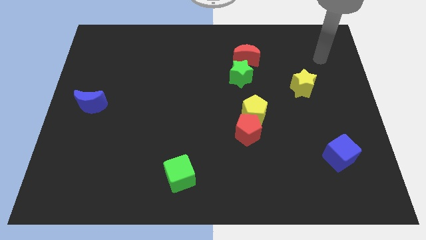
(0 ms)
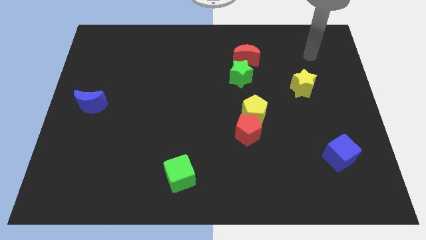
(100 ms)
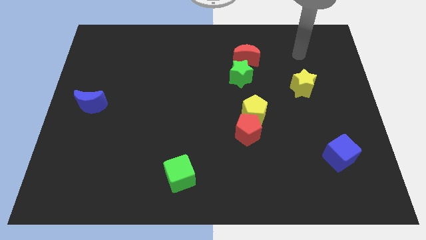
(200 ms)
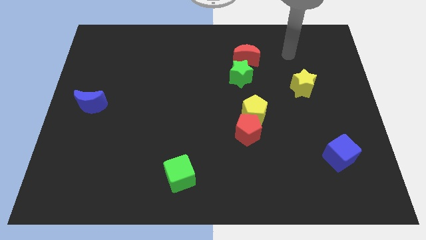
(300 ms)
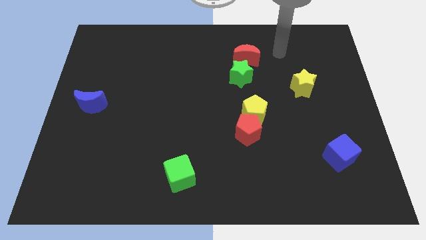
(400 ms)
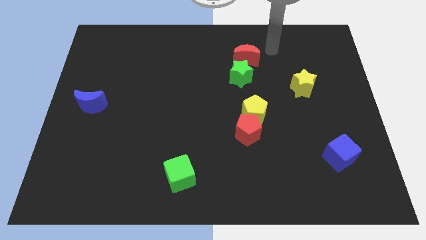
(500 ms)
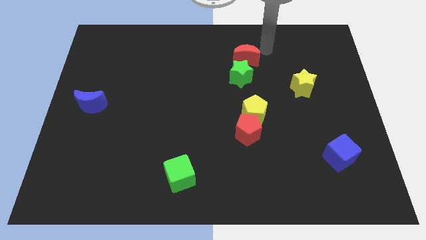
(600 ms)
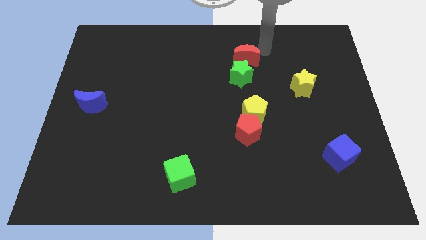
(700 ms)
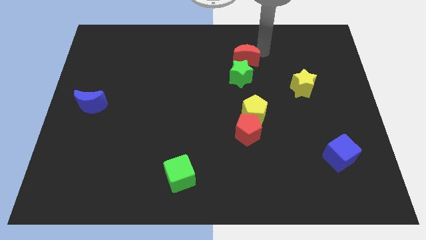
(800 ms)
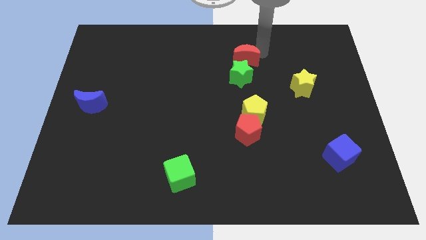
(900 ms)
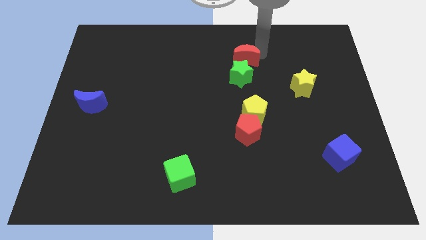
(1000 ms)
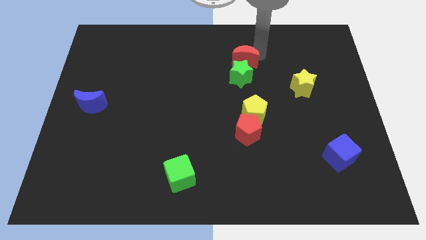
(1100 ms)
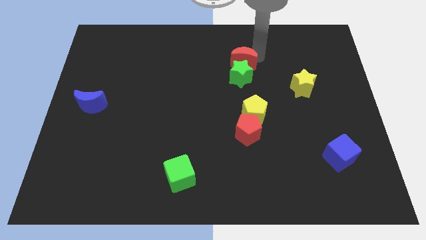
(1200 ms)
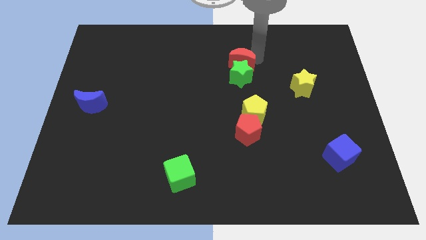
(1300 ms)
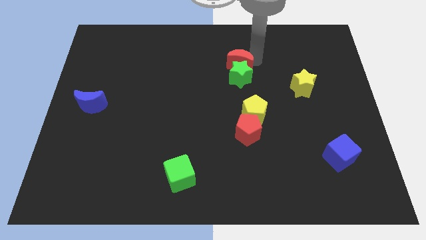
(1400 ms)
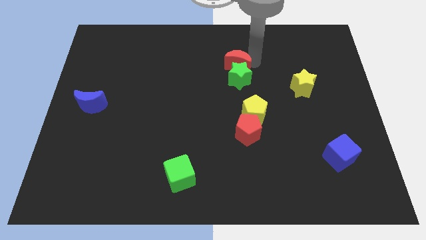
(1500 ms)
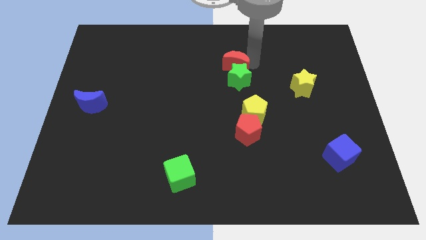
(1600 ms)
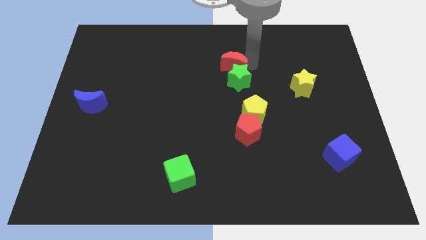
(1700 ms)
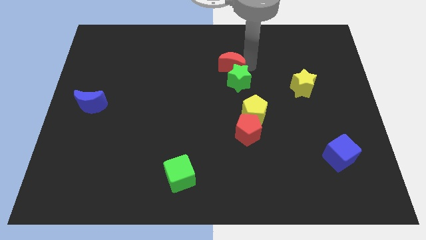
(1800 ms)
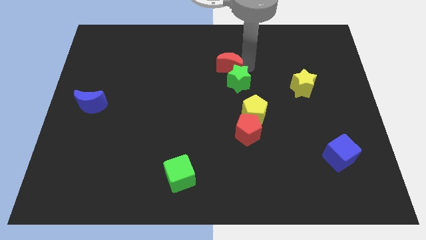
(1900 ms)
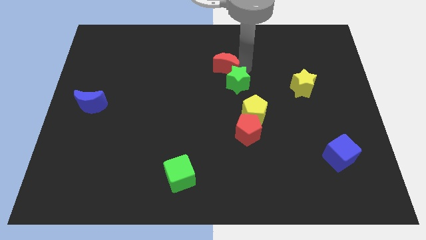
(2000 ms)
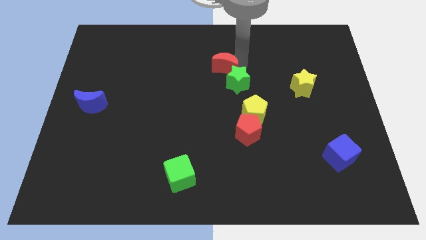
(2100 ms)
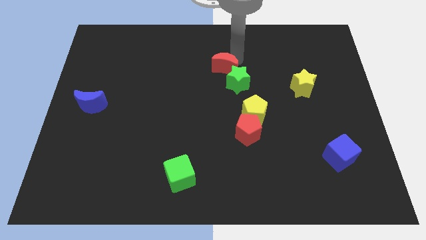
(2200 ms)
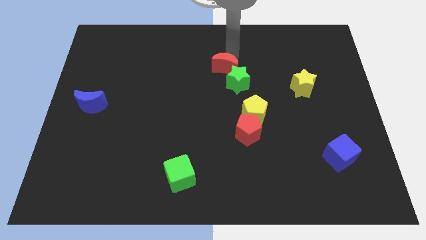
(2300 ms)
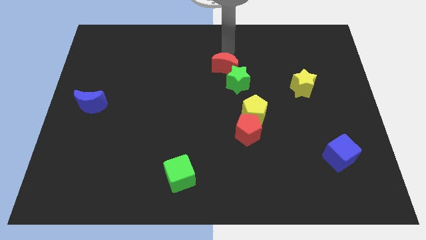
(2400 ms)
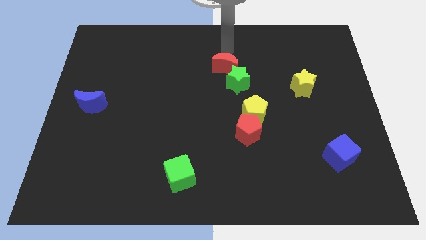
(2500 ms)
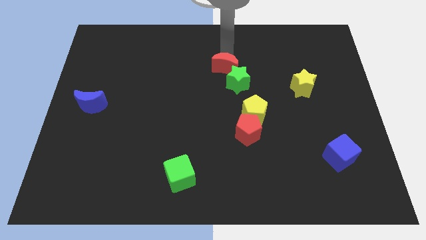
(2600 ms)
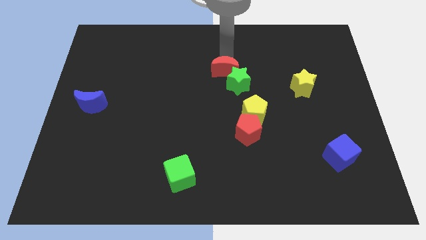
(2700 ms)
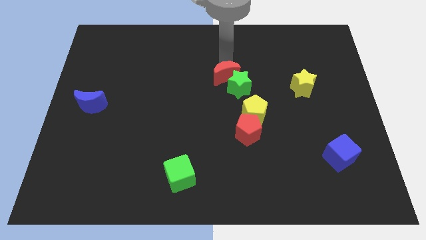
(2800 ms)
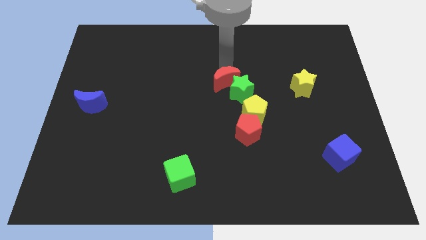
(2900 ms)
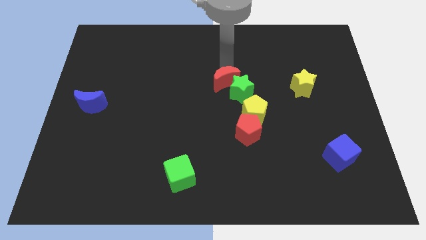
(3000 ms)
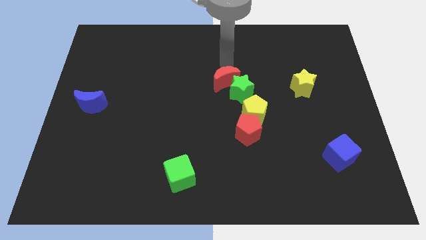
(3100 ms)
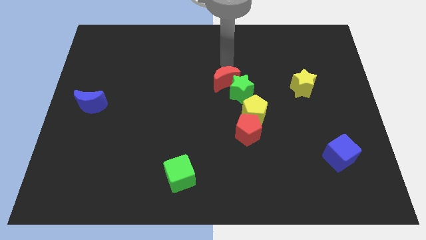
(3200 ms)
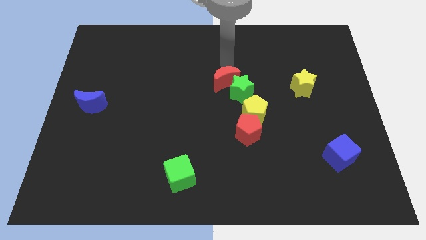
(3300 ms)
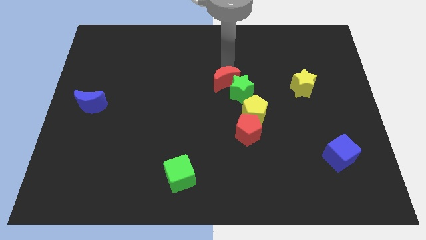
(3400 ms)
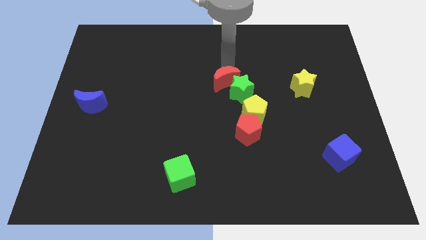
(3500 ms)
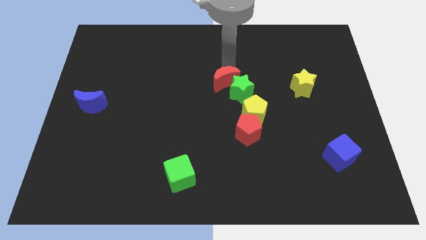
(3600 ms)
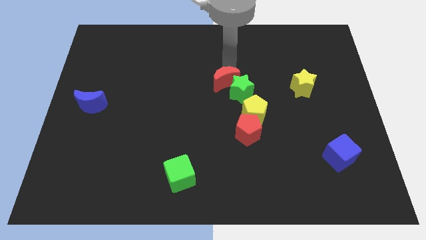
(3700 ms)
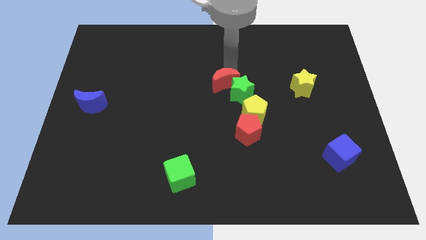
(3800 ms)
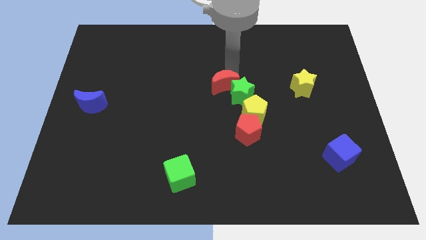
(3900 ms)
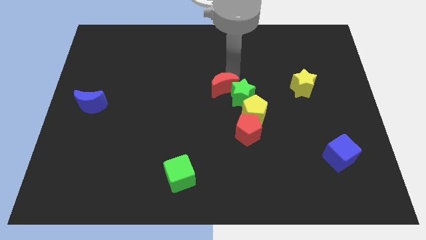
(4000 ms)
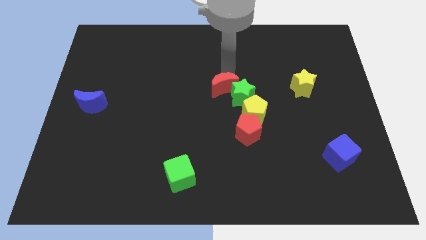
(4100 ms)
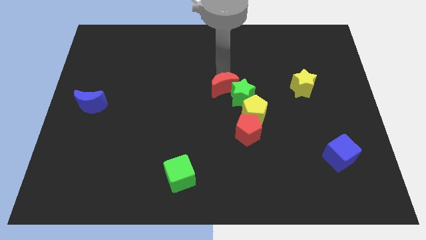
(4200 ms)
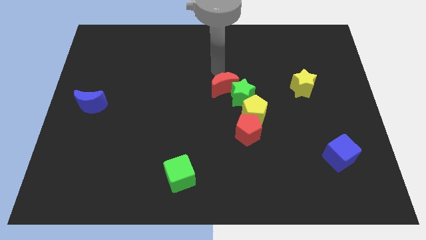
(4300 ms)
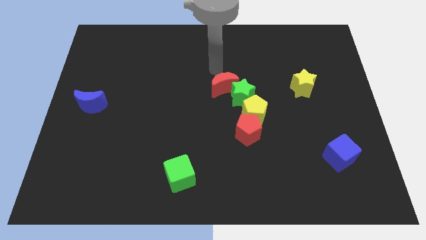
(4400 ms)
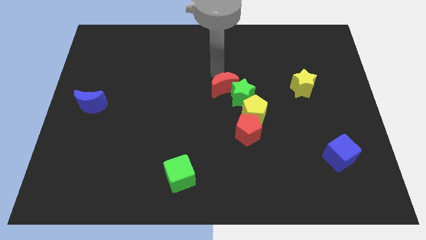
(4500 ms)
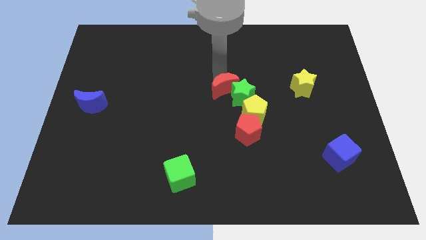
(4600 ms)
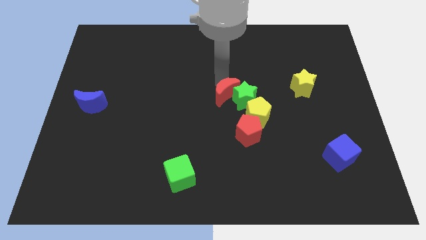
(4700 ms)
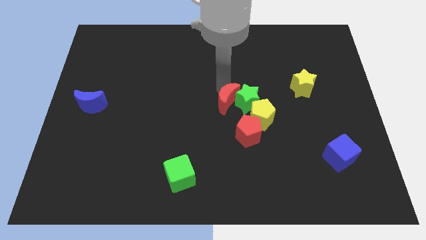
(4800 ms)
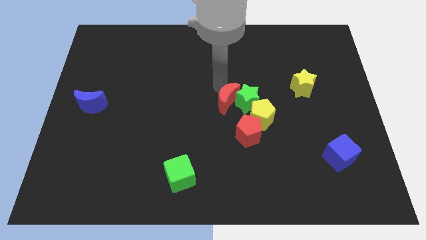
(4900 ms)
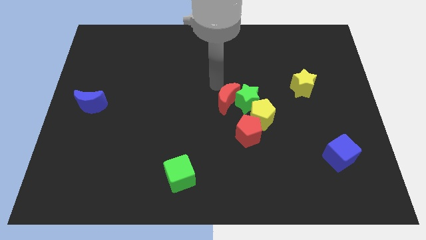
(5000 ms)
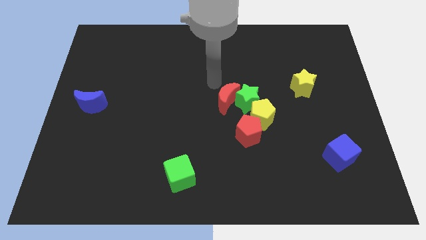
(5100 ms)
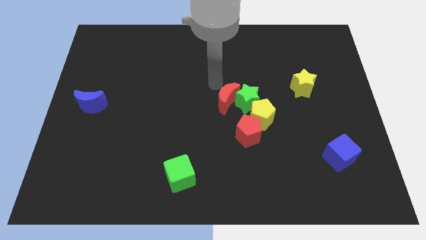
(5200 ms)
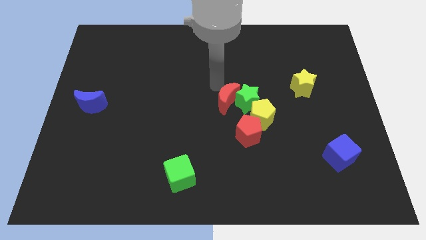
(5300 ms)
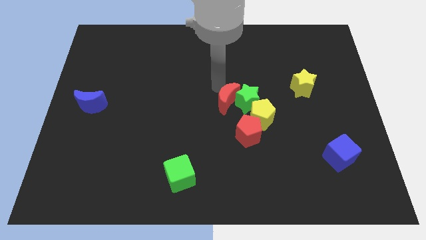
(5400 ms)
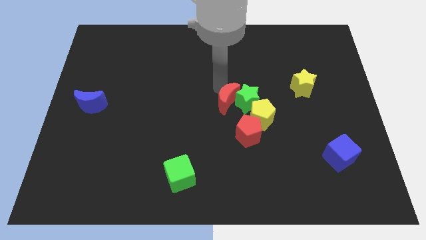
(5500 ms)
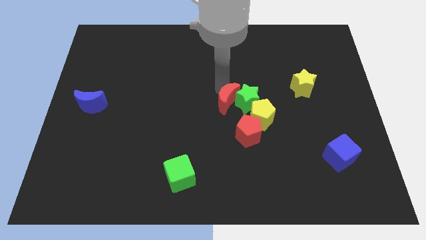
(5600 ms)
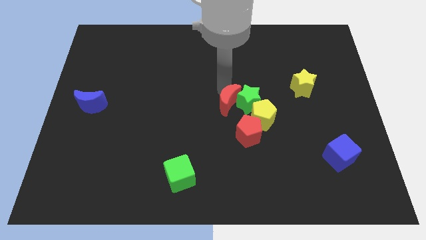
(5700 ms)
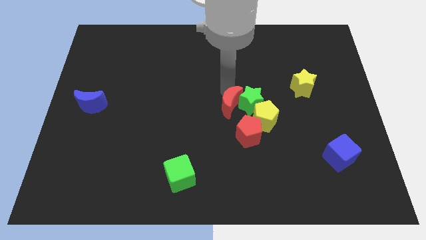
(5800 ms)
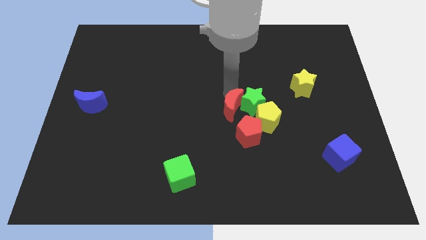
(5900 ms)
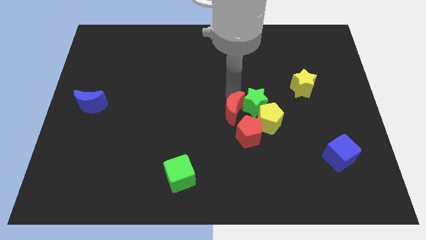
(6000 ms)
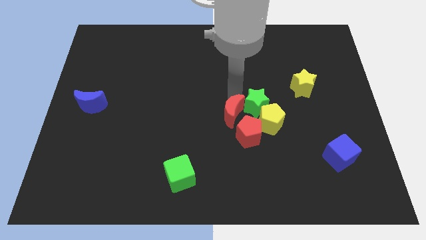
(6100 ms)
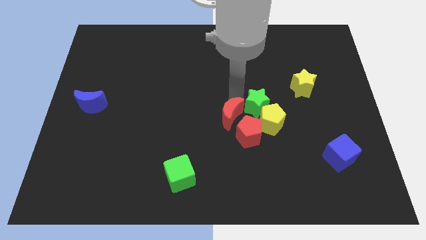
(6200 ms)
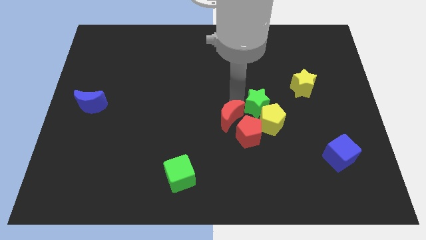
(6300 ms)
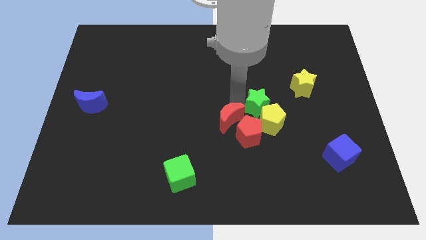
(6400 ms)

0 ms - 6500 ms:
slide the red moon to the red pentagon

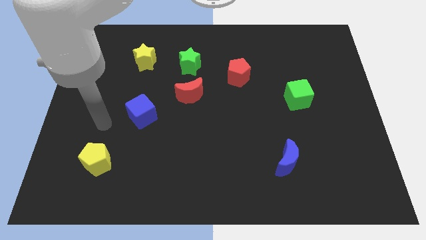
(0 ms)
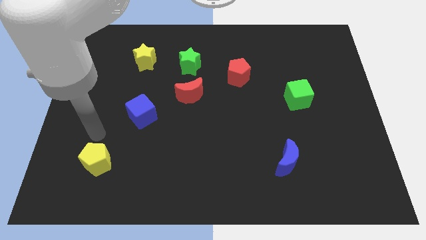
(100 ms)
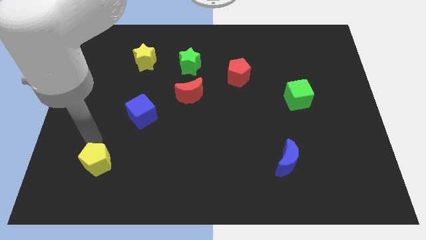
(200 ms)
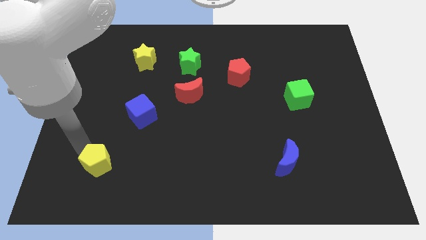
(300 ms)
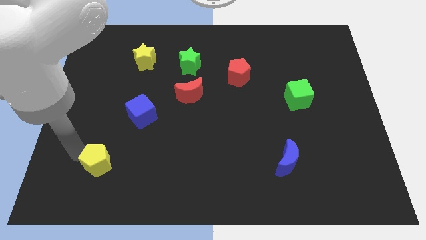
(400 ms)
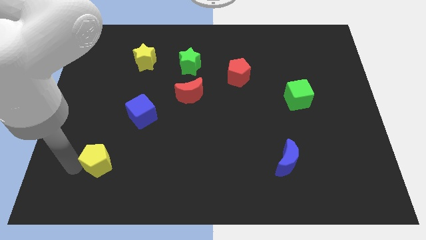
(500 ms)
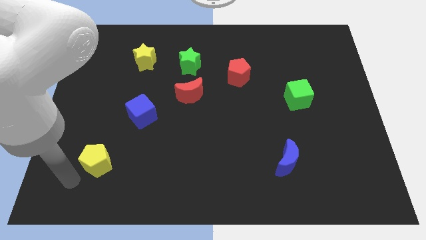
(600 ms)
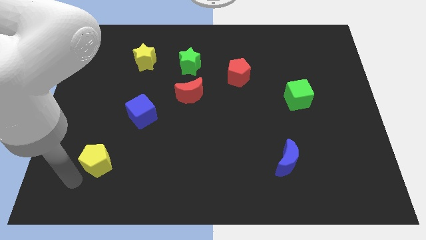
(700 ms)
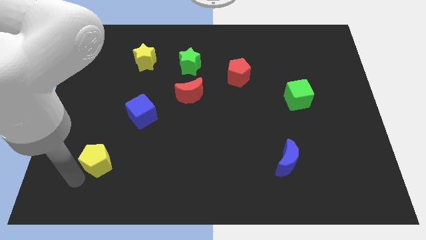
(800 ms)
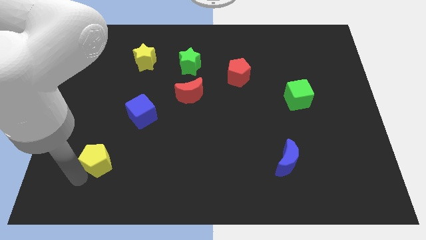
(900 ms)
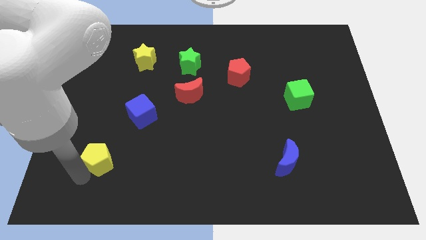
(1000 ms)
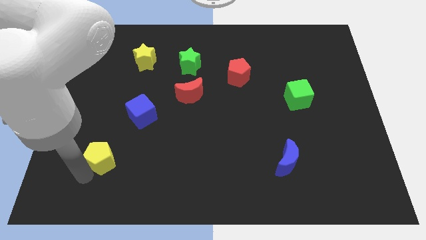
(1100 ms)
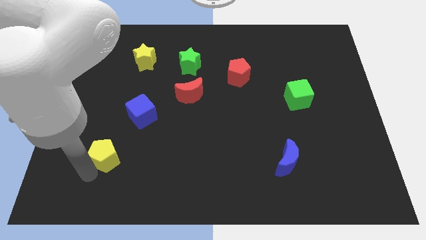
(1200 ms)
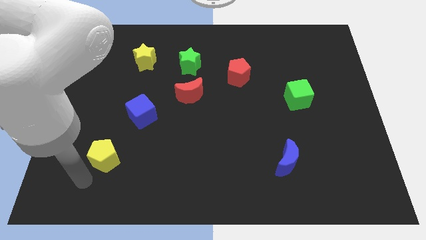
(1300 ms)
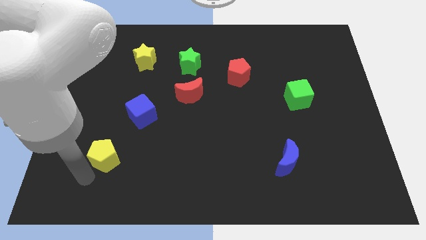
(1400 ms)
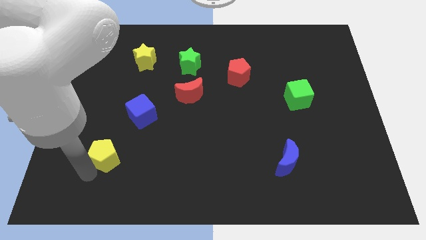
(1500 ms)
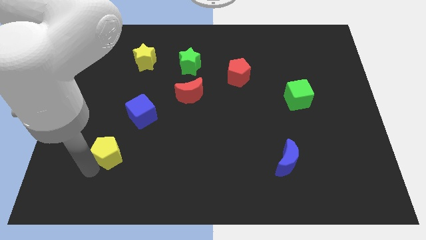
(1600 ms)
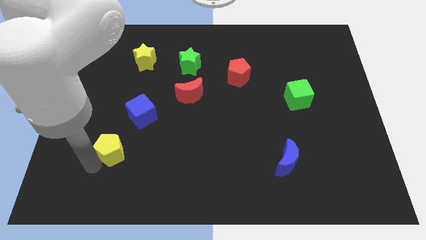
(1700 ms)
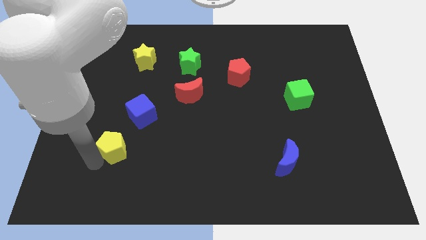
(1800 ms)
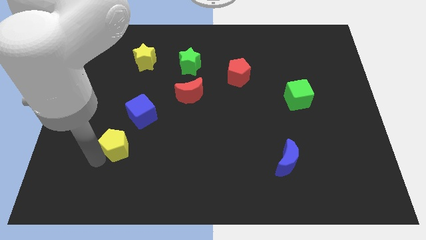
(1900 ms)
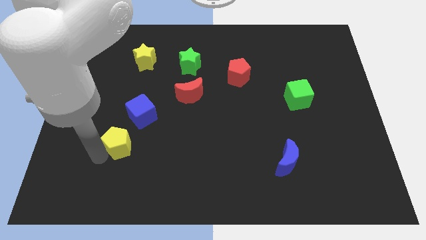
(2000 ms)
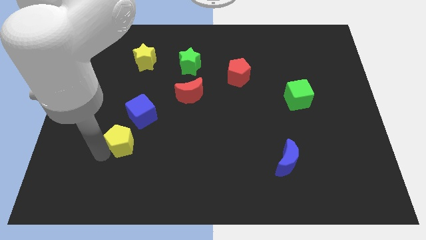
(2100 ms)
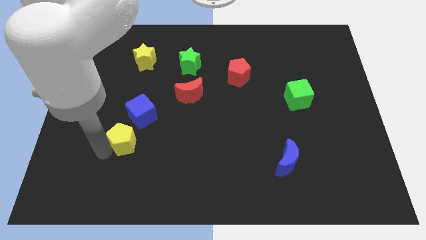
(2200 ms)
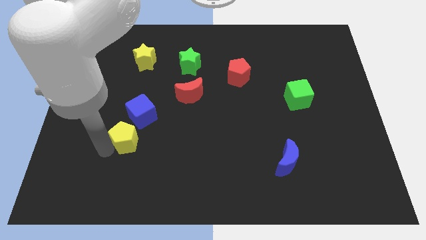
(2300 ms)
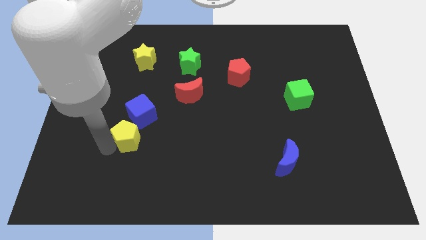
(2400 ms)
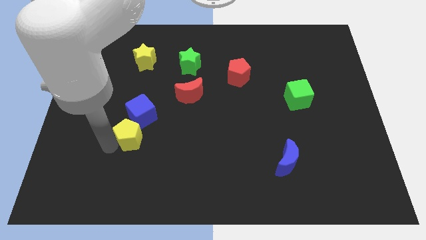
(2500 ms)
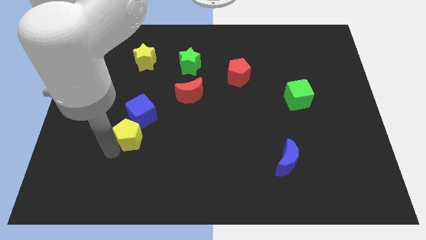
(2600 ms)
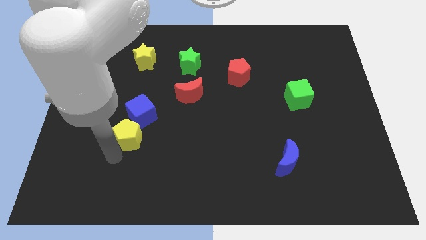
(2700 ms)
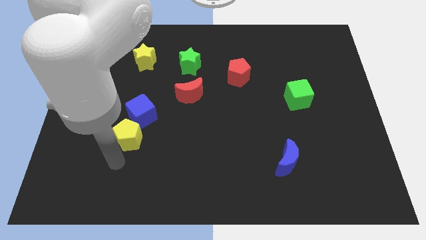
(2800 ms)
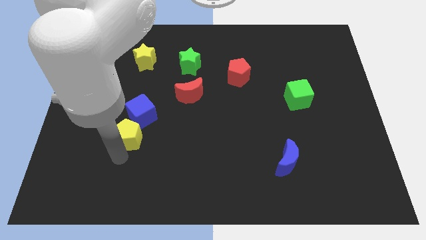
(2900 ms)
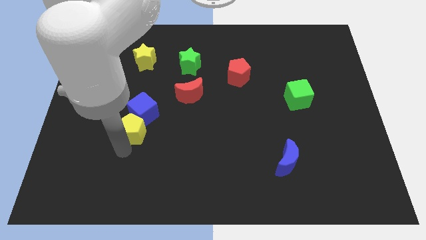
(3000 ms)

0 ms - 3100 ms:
put the yellow pentagon to the blue cube
